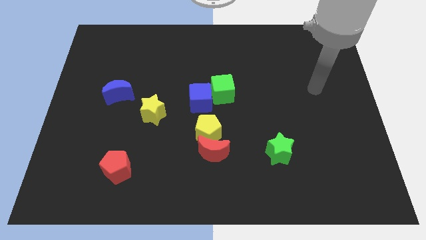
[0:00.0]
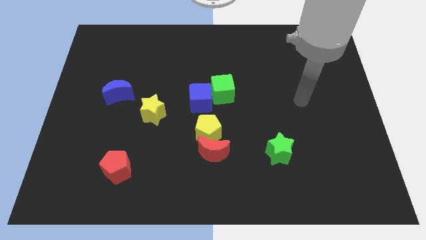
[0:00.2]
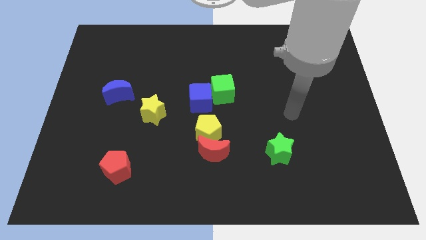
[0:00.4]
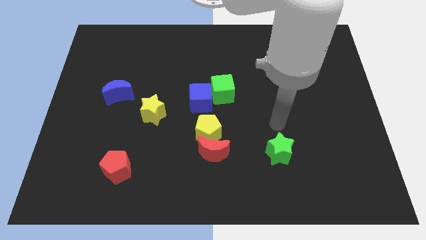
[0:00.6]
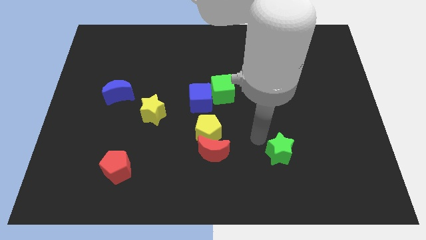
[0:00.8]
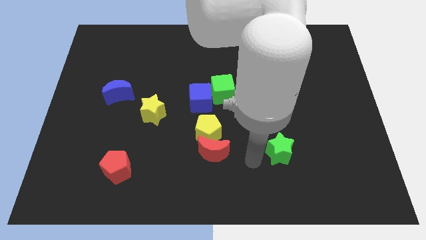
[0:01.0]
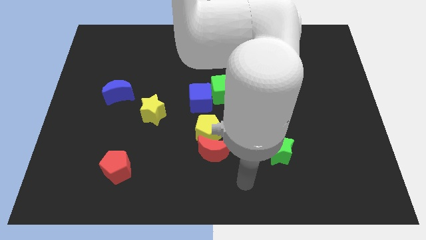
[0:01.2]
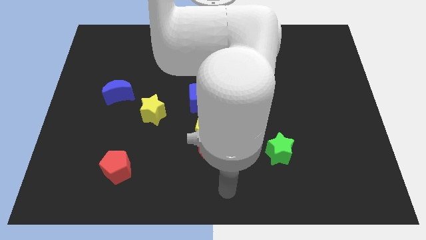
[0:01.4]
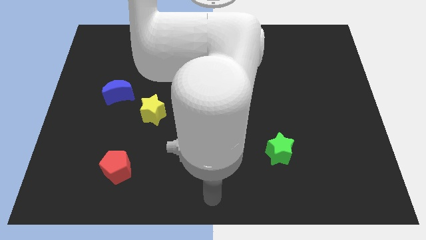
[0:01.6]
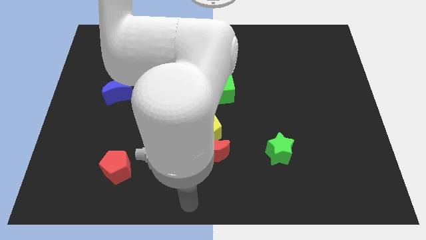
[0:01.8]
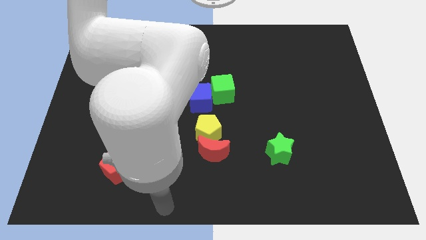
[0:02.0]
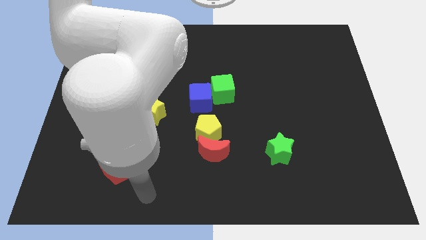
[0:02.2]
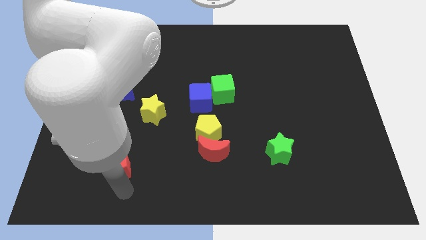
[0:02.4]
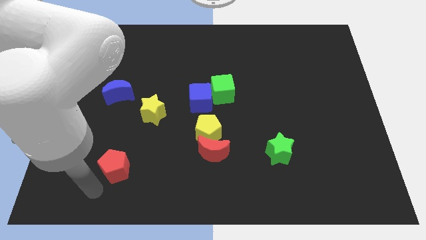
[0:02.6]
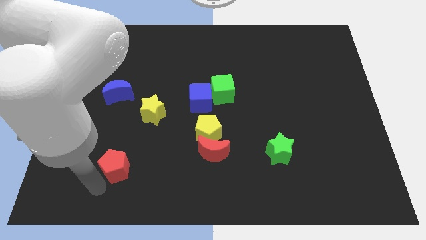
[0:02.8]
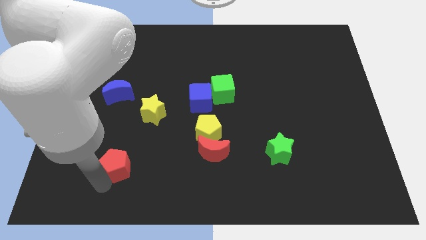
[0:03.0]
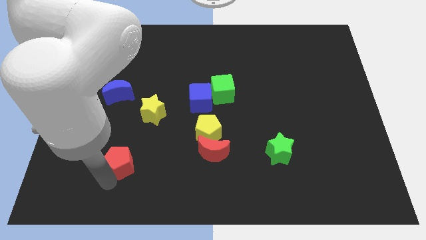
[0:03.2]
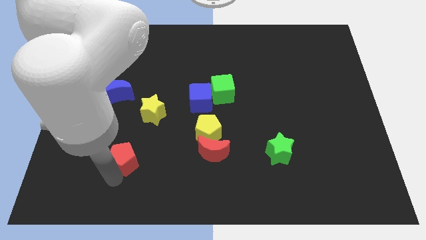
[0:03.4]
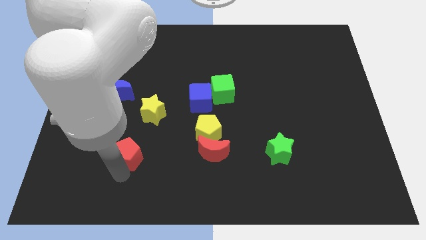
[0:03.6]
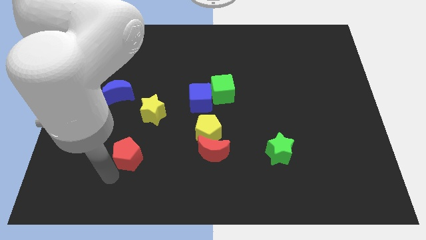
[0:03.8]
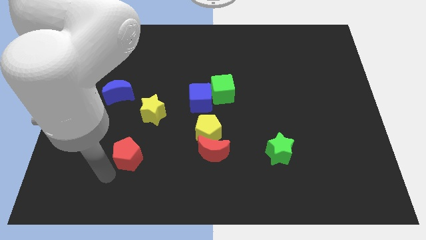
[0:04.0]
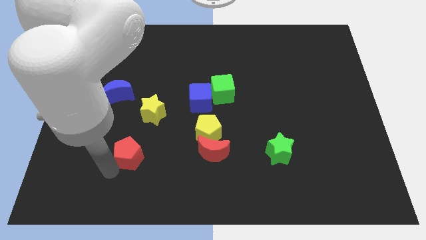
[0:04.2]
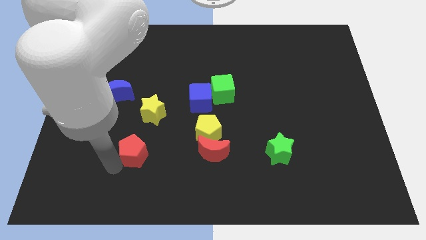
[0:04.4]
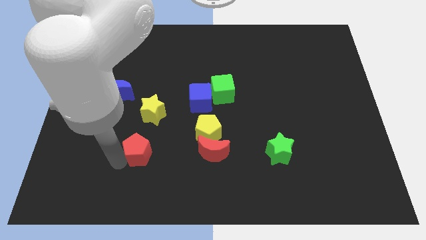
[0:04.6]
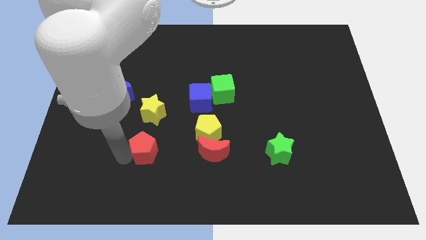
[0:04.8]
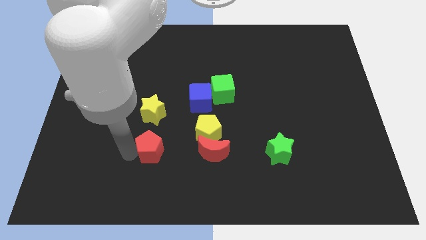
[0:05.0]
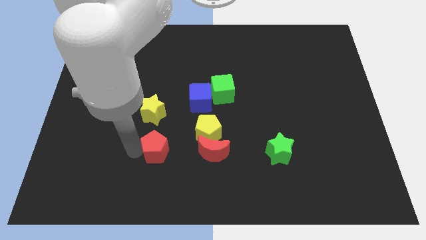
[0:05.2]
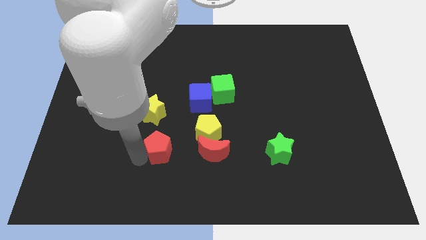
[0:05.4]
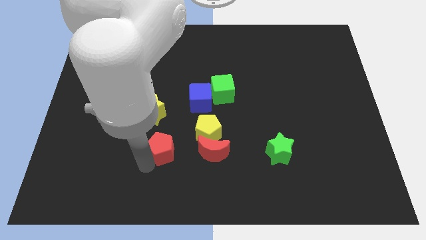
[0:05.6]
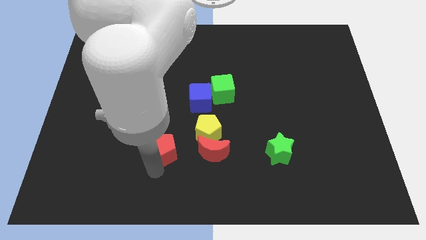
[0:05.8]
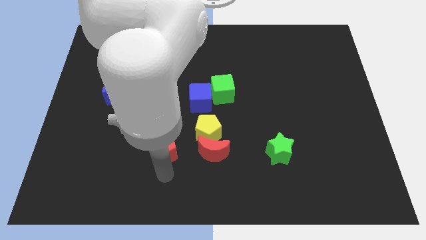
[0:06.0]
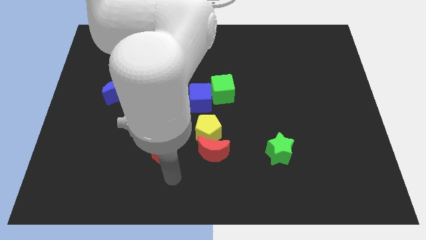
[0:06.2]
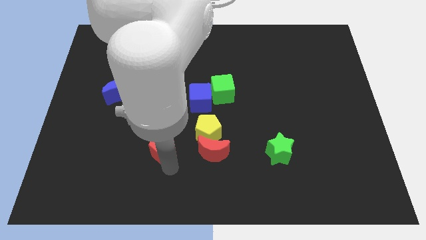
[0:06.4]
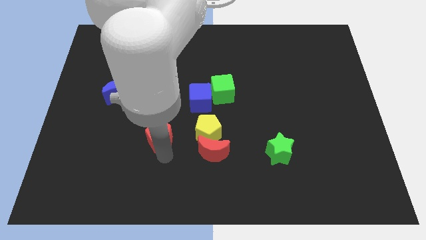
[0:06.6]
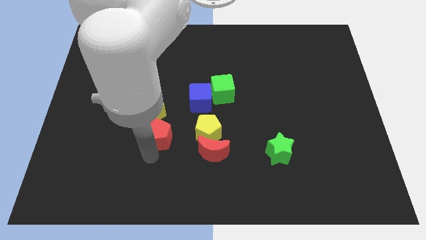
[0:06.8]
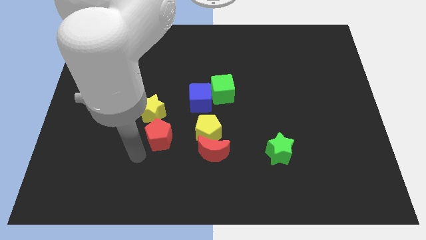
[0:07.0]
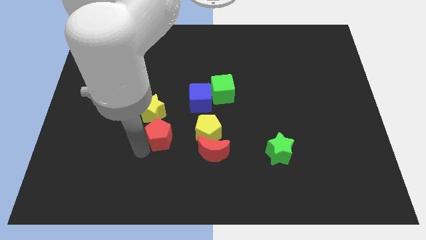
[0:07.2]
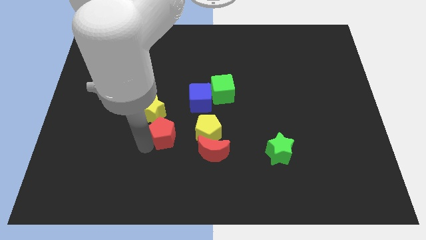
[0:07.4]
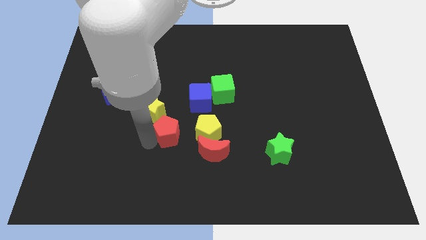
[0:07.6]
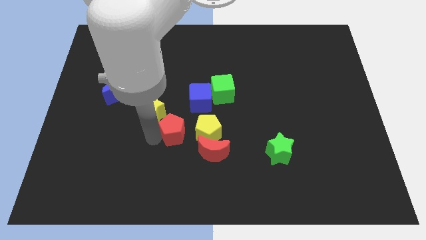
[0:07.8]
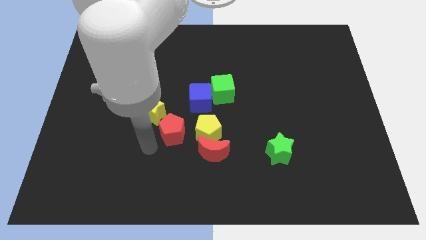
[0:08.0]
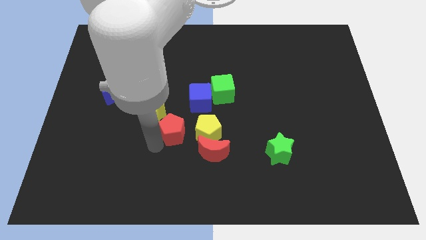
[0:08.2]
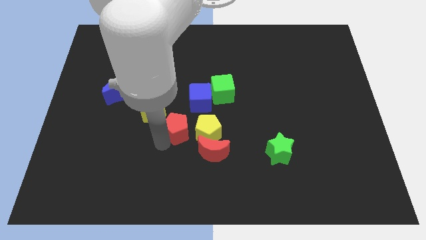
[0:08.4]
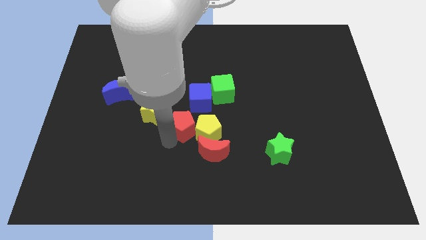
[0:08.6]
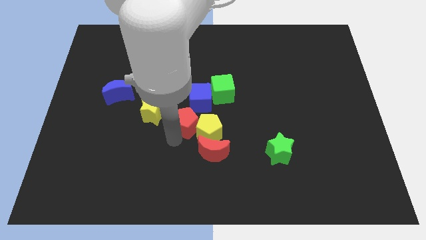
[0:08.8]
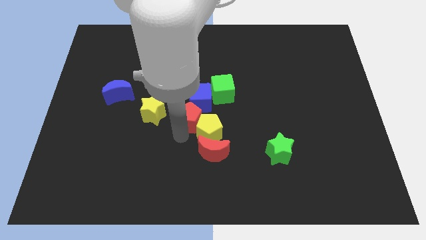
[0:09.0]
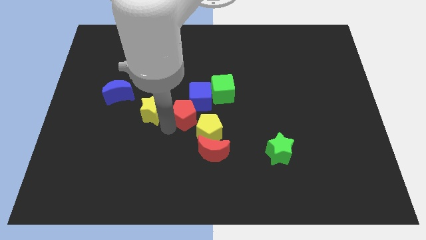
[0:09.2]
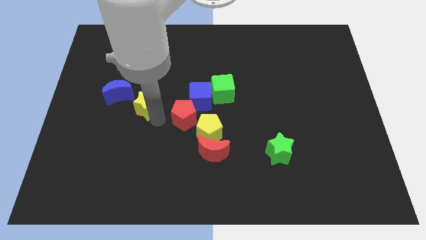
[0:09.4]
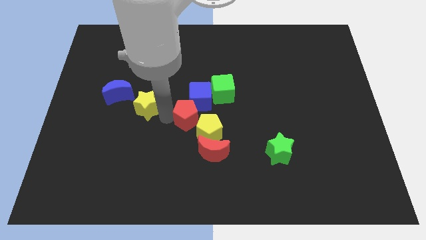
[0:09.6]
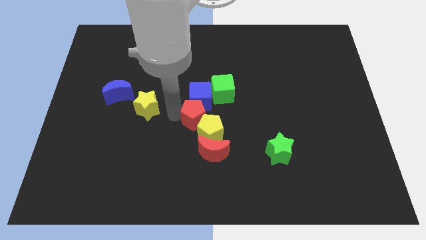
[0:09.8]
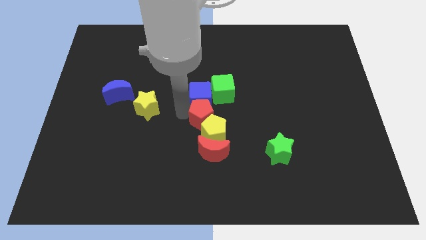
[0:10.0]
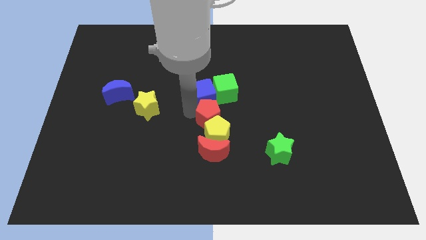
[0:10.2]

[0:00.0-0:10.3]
put the red pentagon to the top right of the yellow pentagon

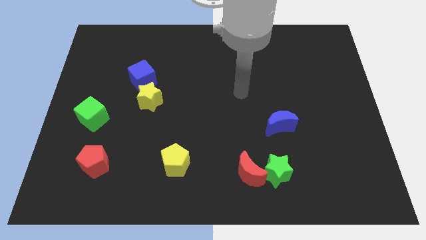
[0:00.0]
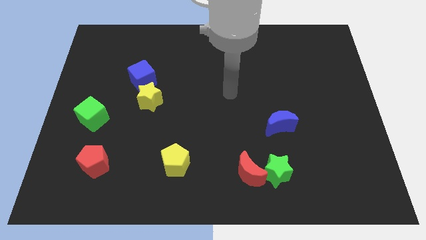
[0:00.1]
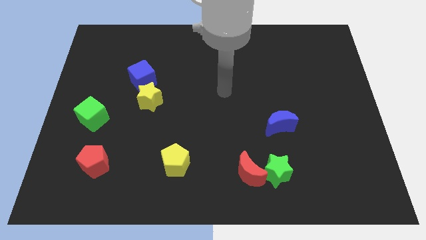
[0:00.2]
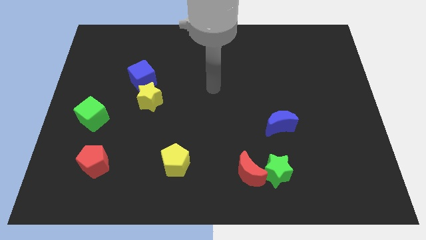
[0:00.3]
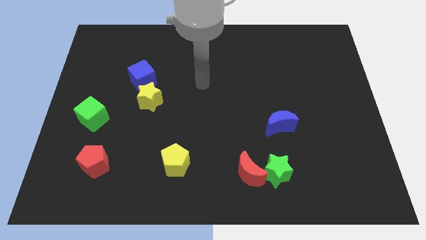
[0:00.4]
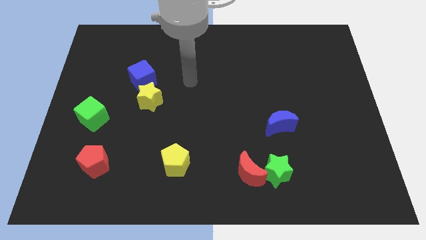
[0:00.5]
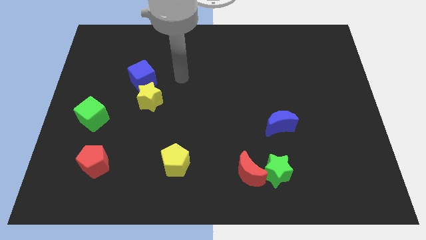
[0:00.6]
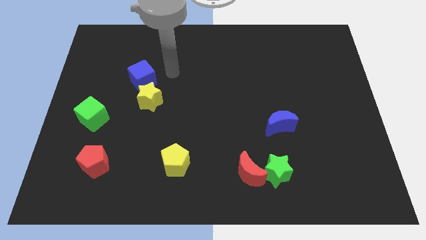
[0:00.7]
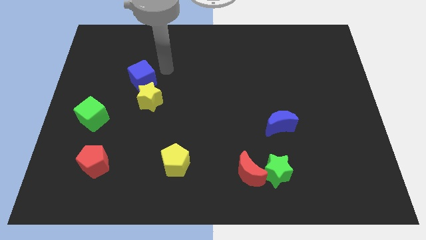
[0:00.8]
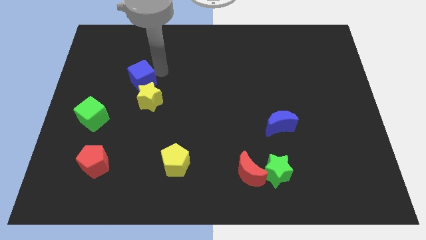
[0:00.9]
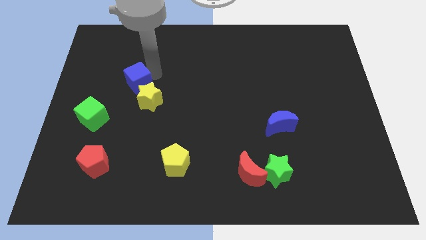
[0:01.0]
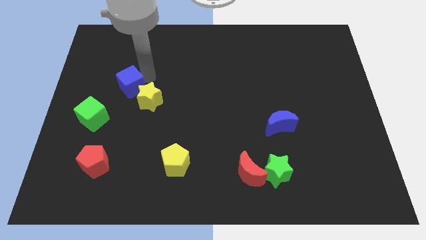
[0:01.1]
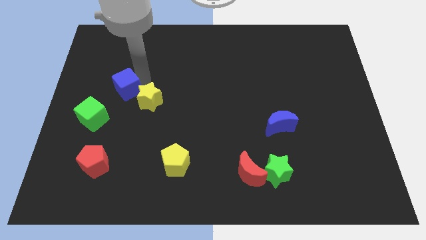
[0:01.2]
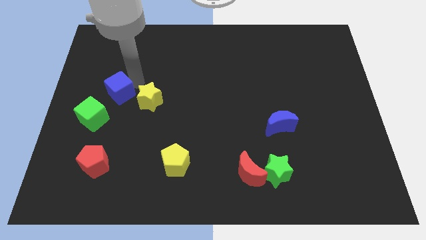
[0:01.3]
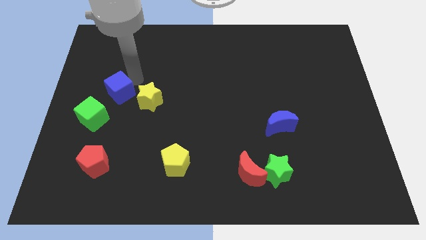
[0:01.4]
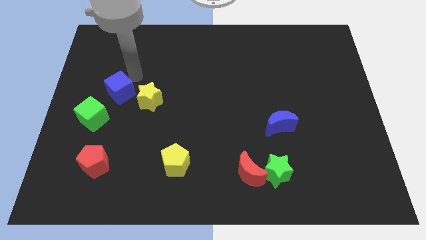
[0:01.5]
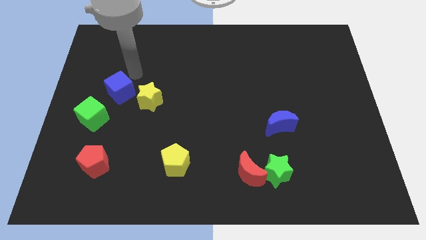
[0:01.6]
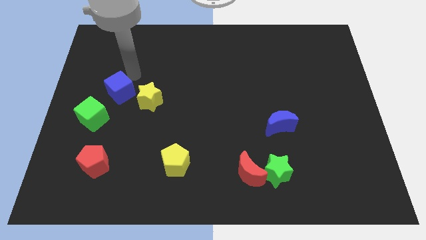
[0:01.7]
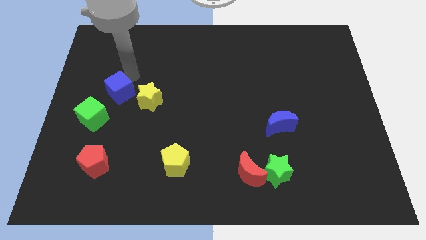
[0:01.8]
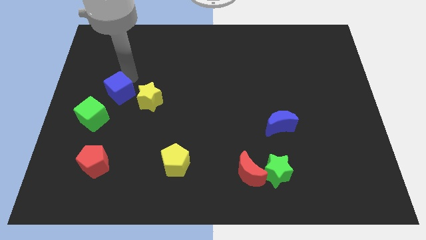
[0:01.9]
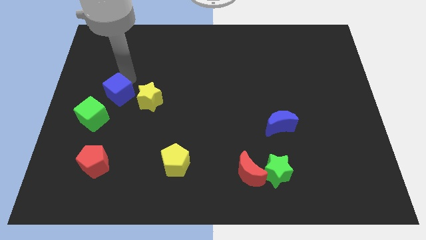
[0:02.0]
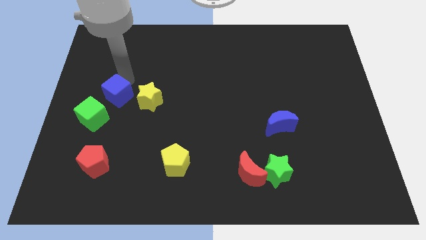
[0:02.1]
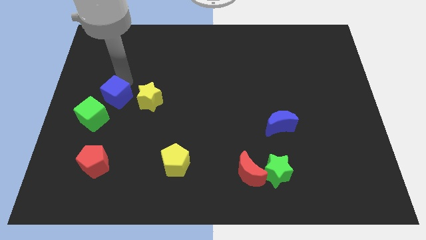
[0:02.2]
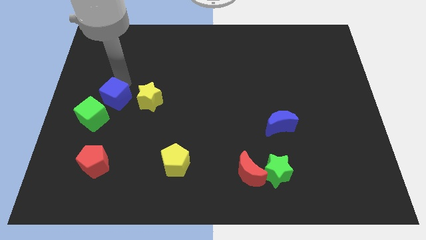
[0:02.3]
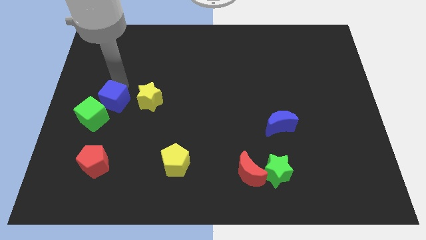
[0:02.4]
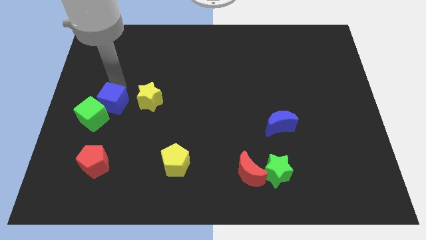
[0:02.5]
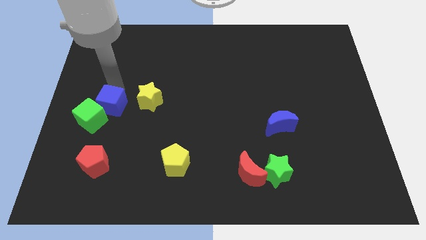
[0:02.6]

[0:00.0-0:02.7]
put the blue cube to the top side of the red pentagon
